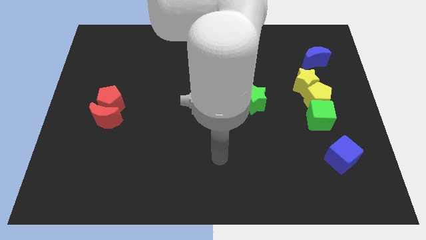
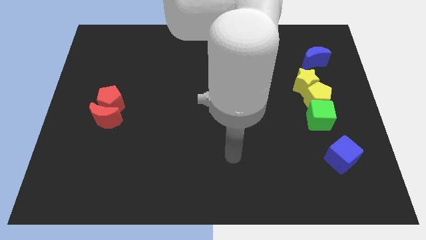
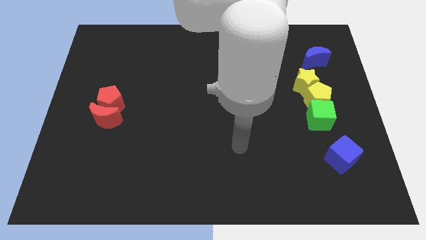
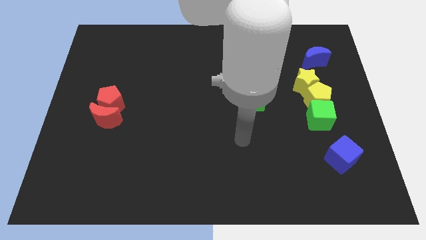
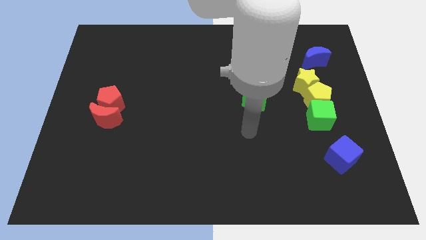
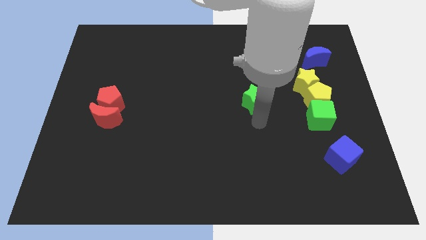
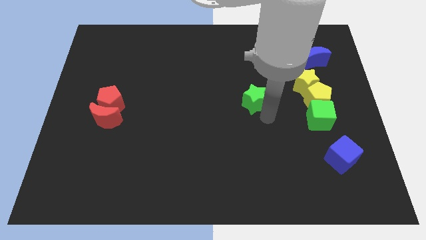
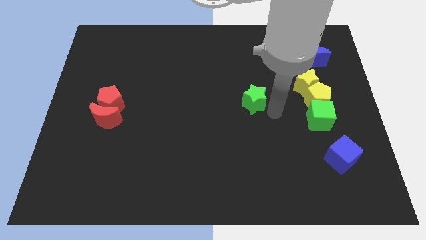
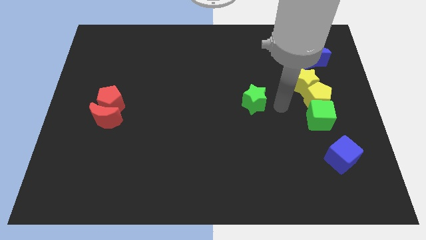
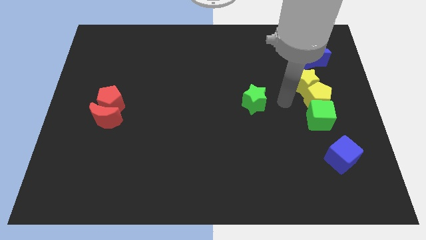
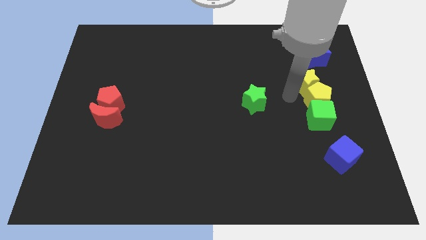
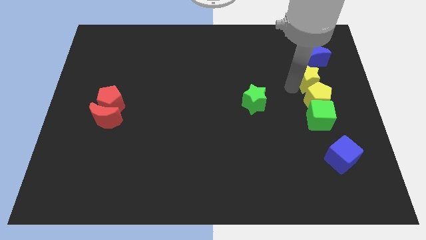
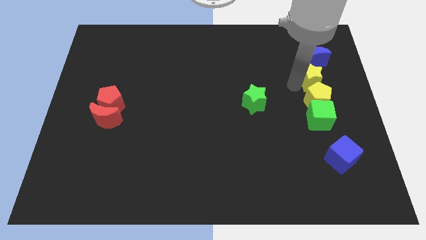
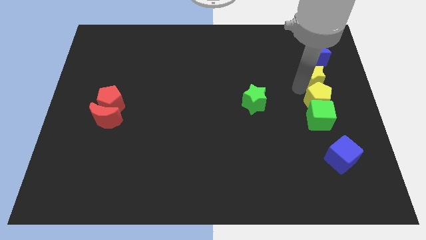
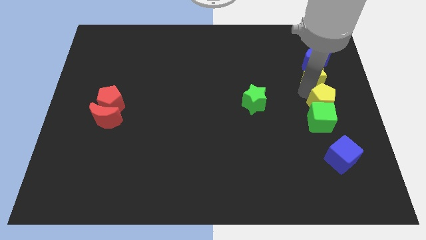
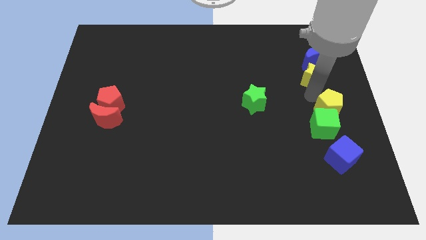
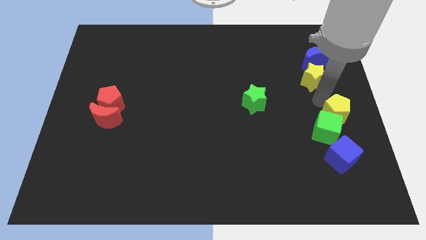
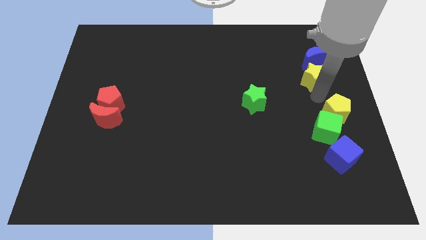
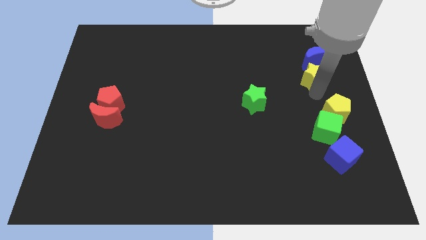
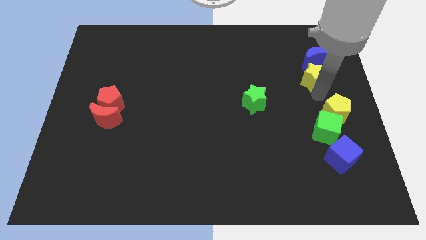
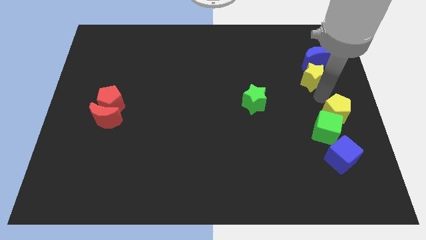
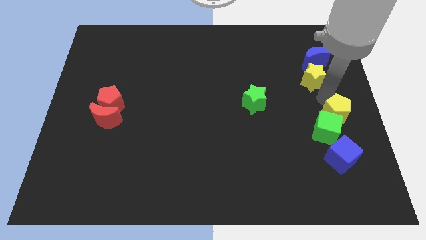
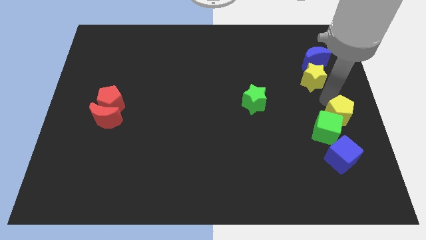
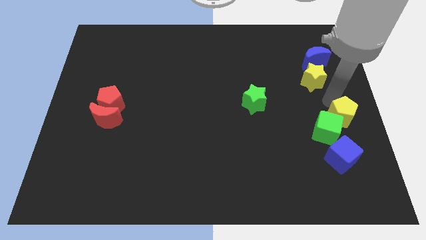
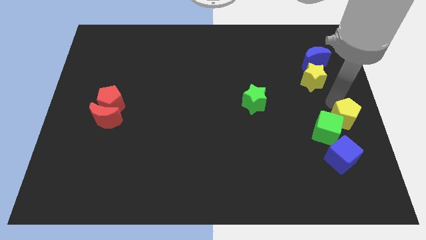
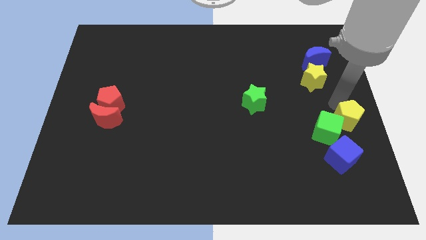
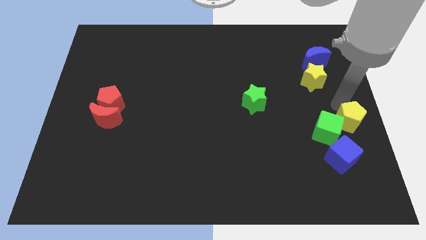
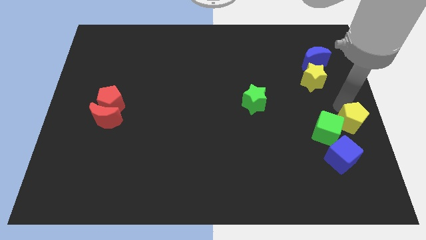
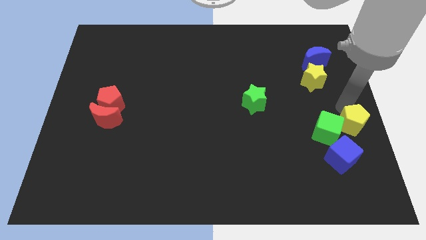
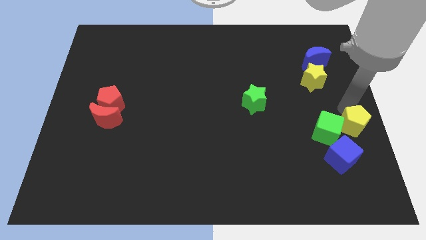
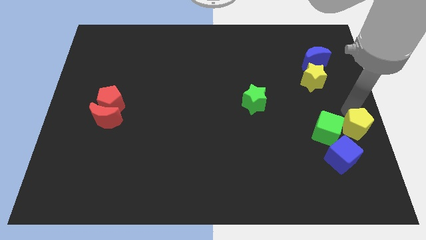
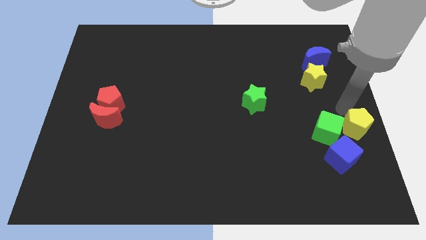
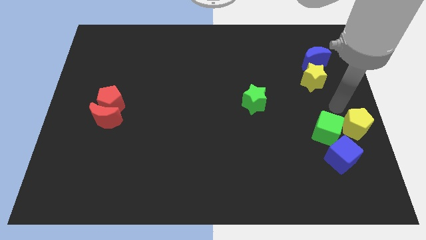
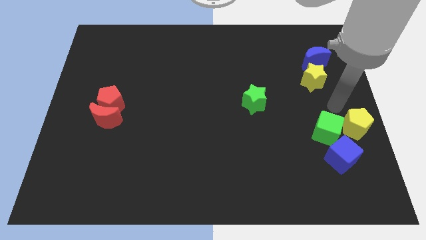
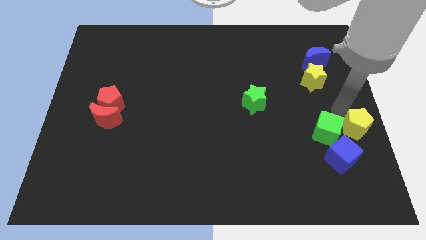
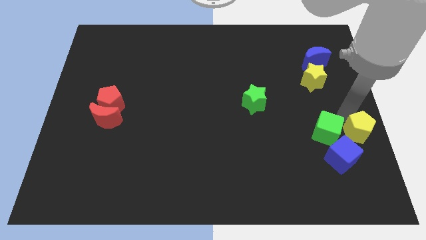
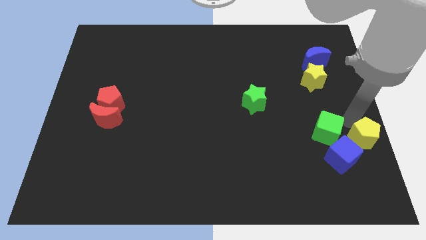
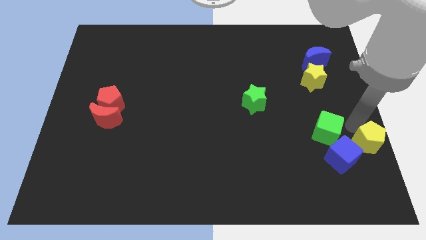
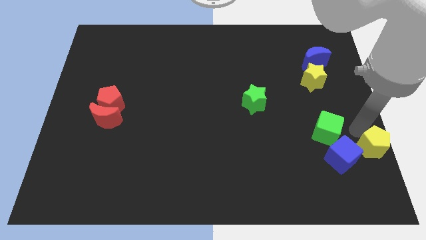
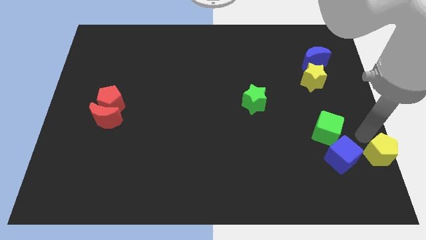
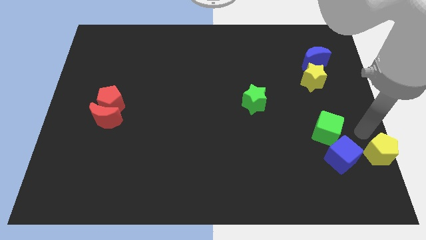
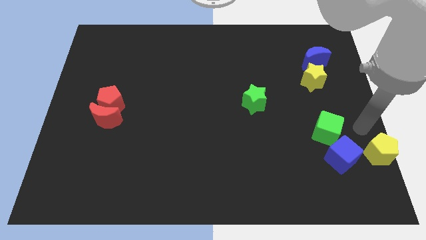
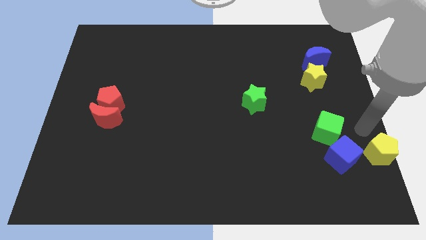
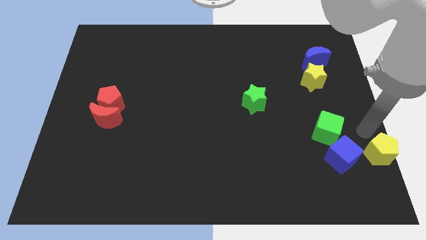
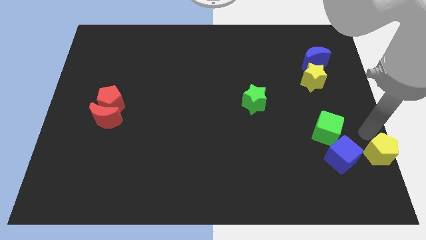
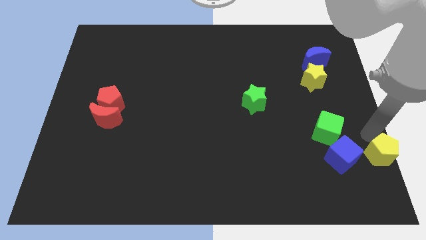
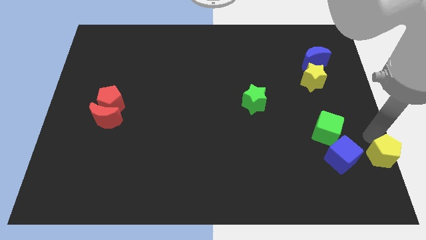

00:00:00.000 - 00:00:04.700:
move the yellow pentagon to the bottom right of the board

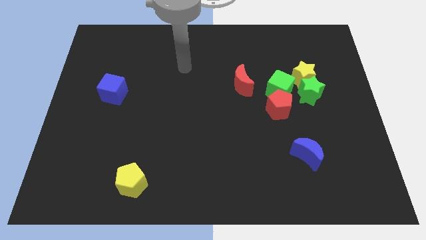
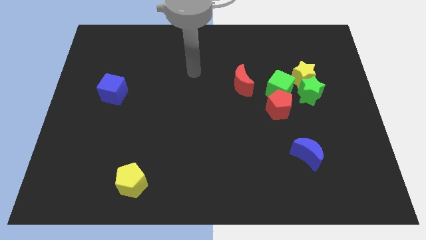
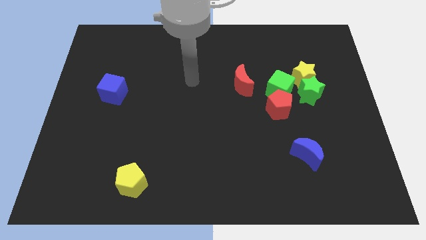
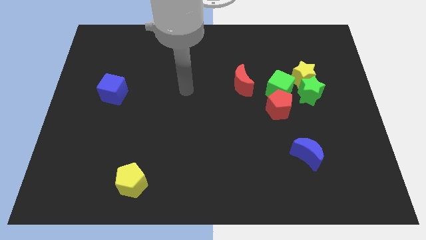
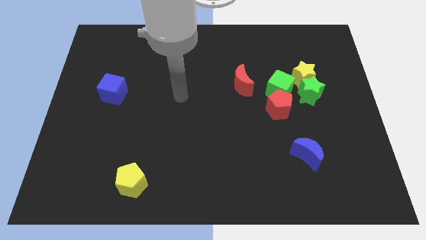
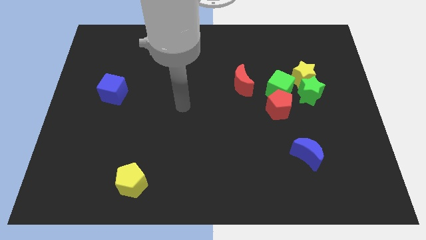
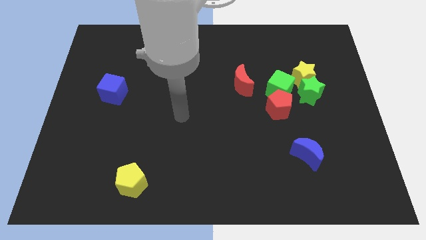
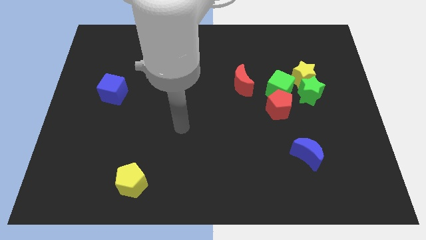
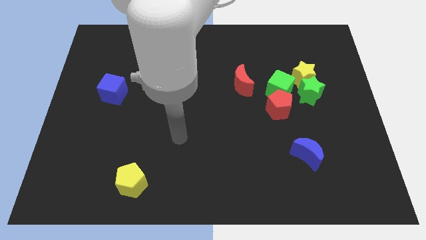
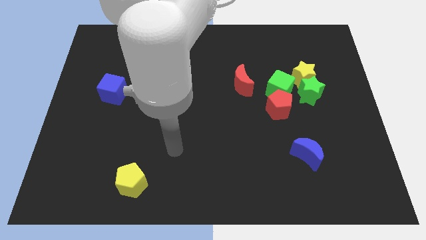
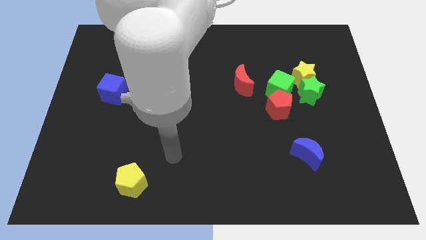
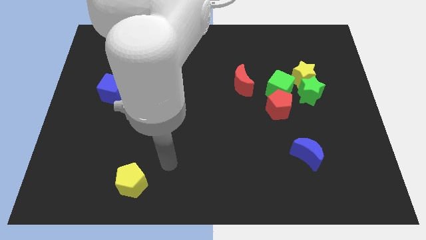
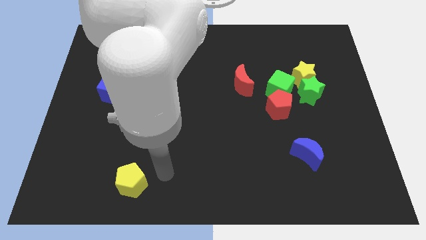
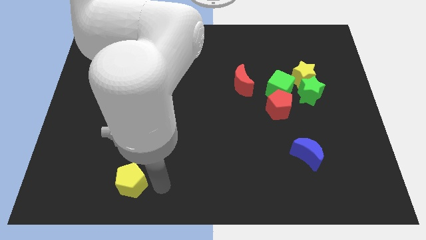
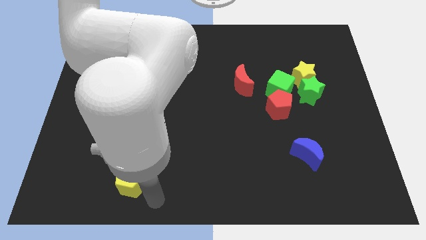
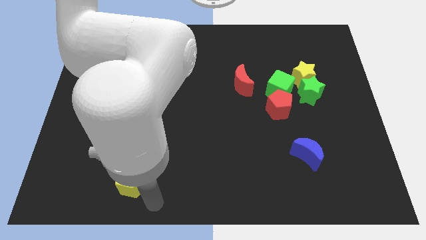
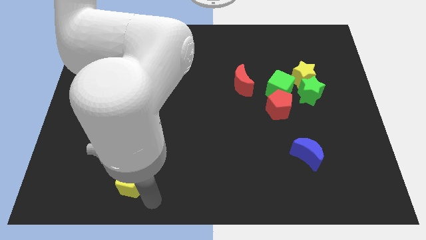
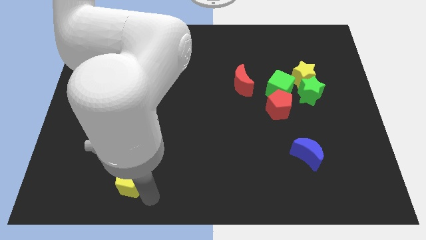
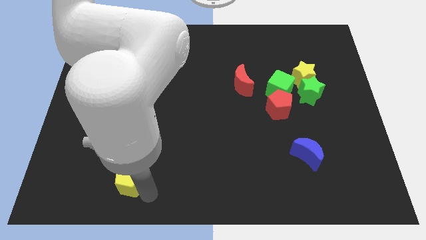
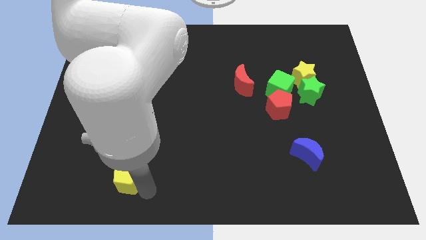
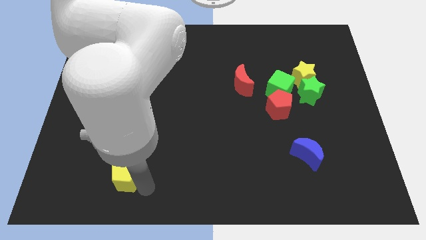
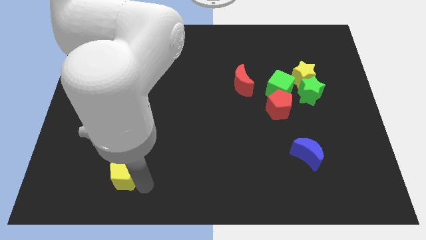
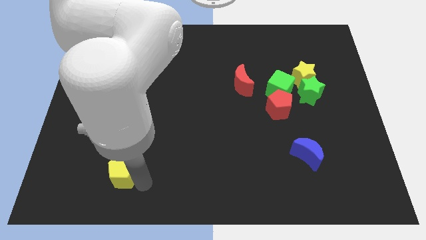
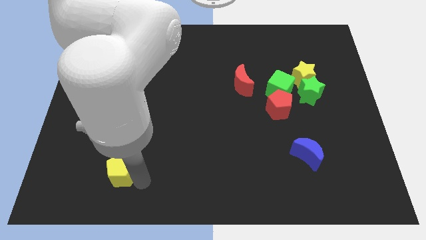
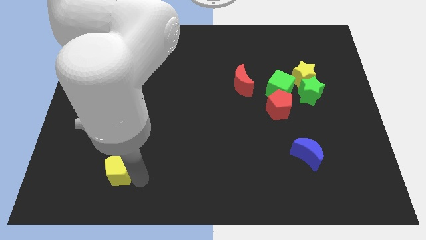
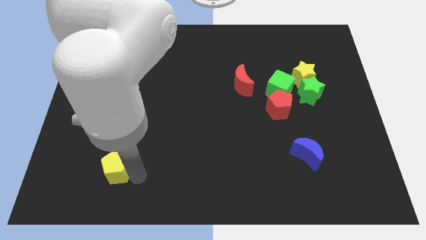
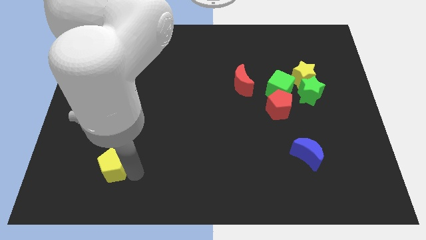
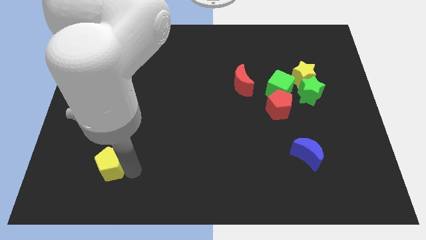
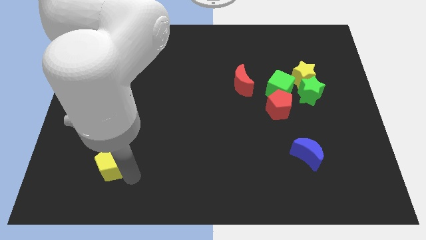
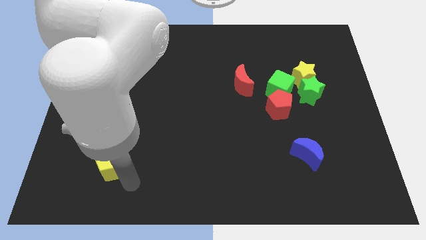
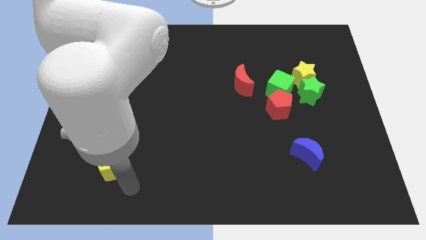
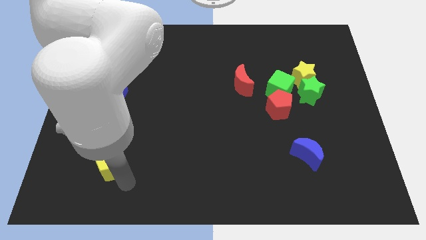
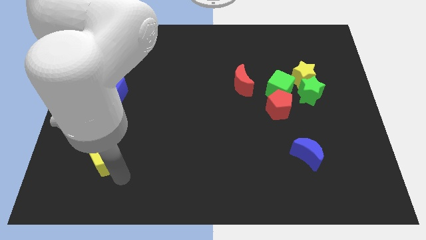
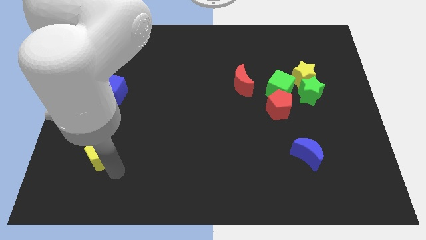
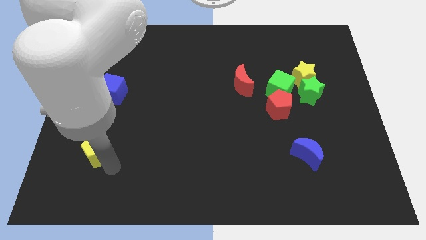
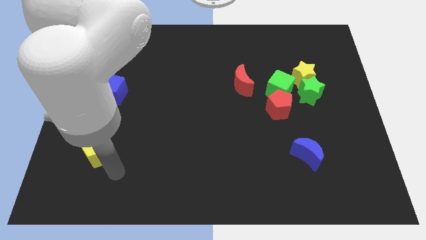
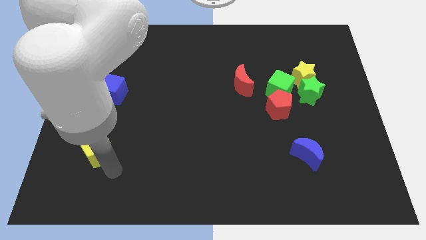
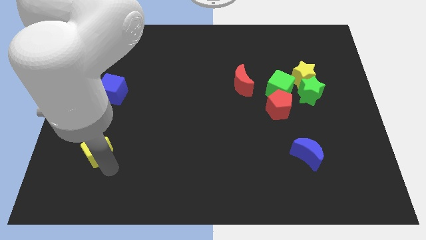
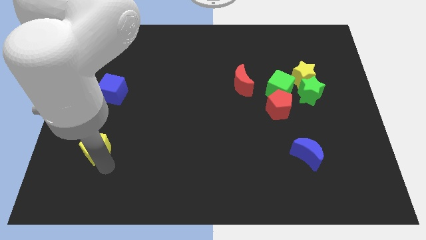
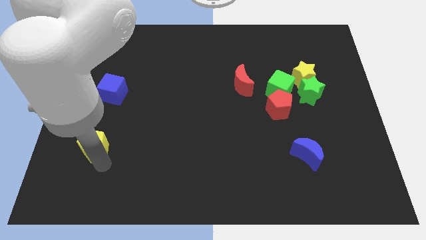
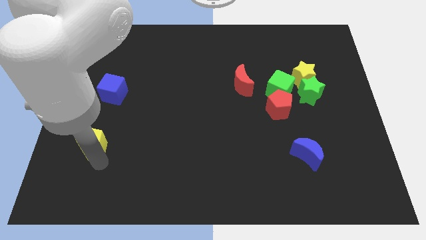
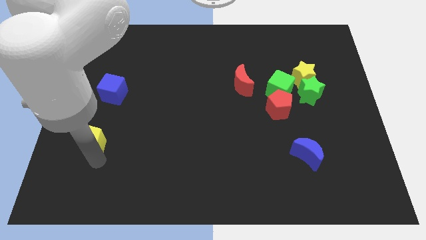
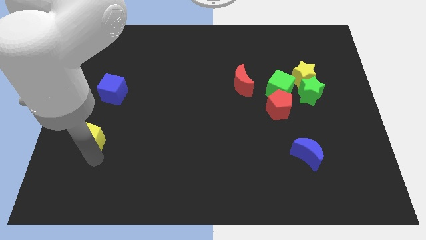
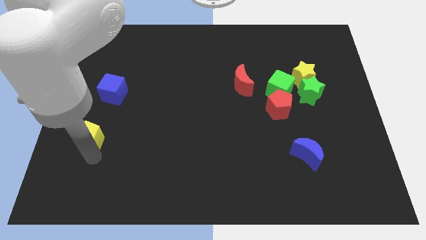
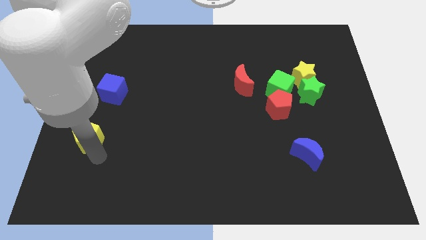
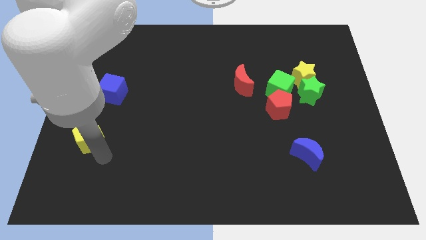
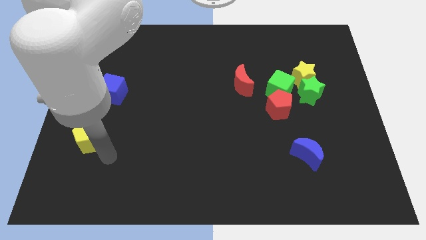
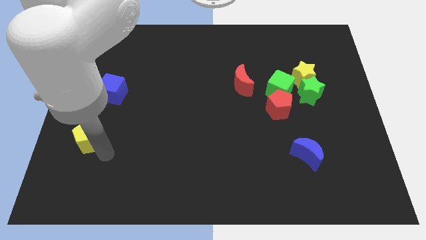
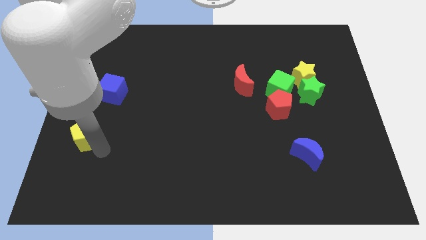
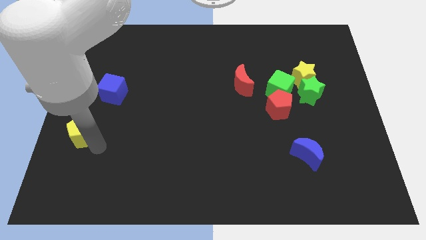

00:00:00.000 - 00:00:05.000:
move the yellow pentagon to the left side
